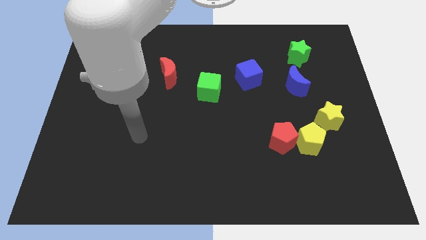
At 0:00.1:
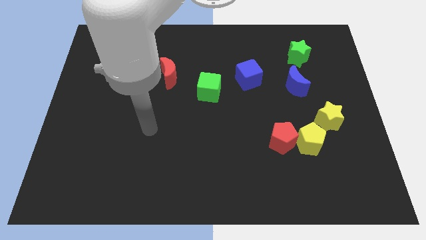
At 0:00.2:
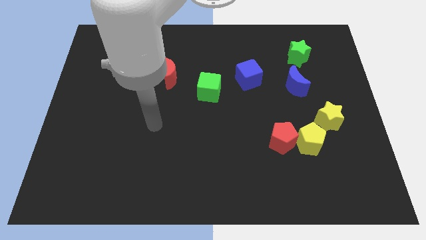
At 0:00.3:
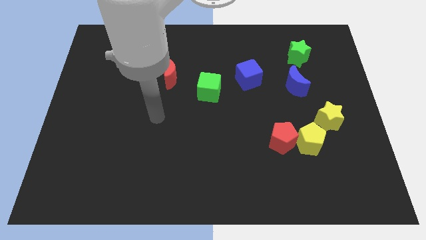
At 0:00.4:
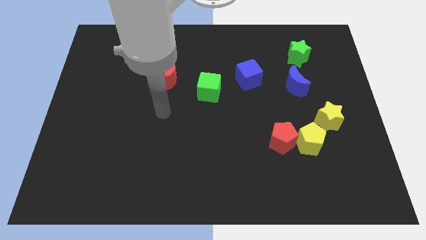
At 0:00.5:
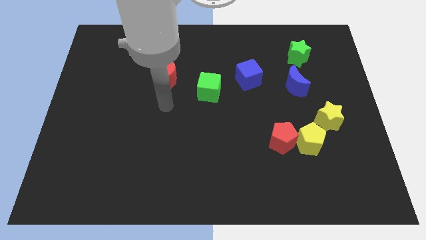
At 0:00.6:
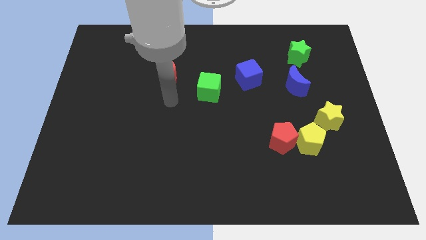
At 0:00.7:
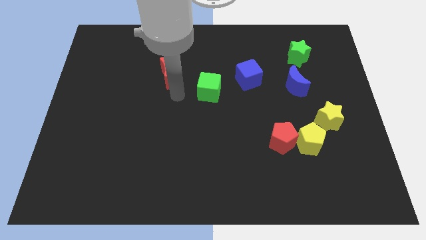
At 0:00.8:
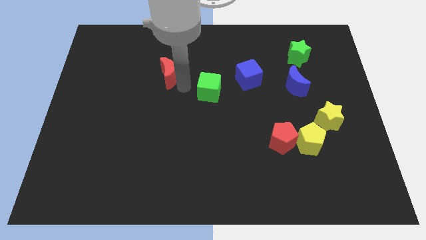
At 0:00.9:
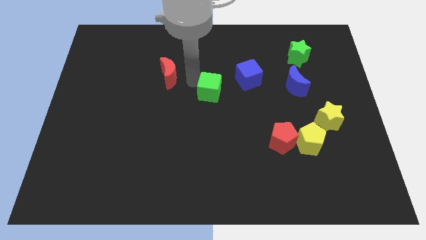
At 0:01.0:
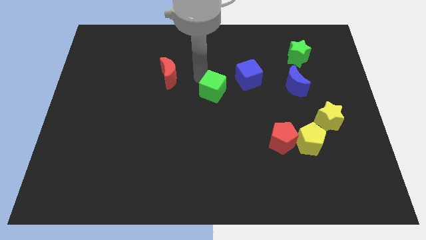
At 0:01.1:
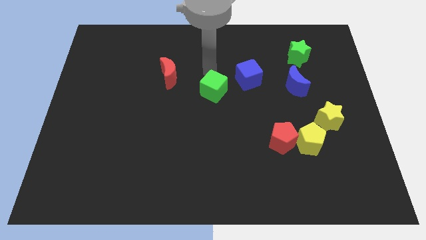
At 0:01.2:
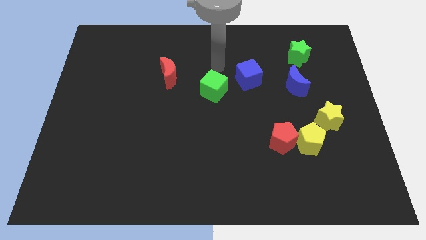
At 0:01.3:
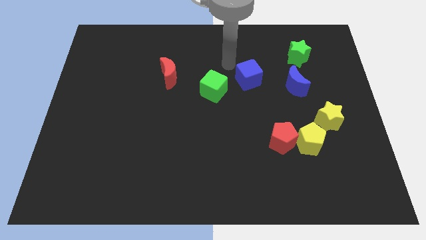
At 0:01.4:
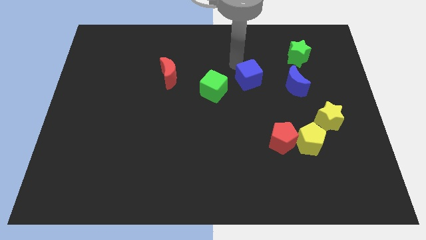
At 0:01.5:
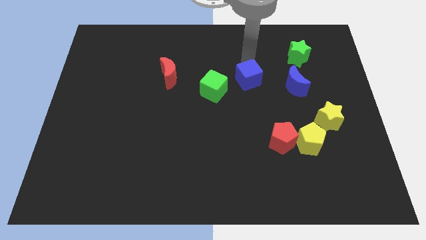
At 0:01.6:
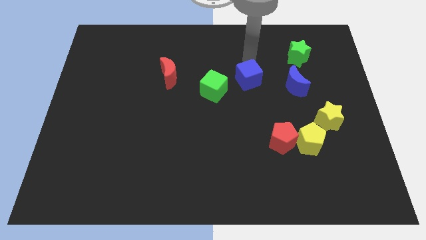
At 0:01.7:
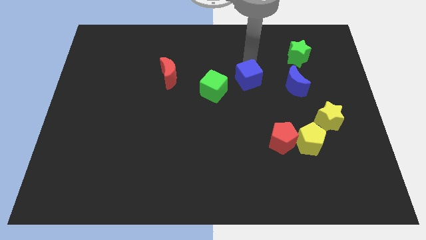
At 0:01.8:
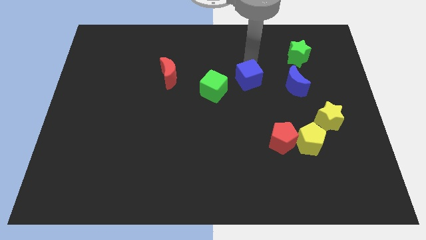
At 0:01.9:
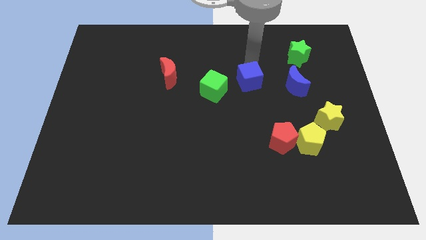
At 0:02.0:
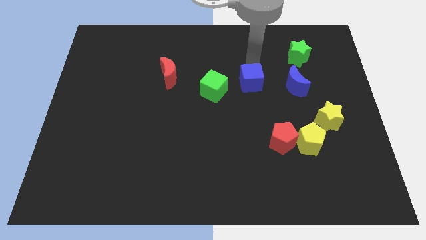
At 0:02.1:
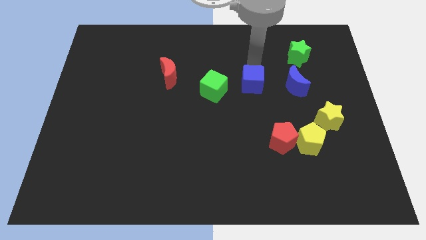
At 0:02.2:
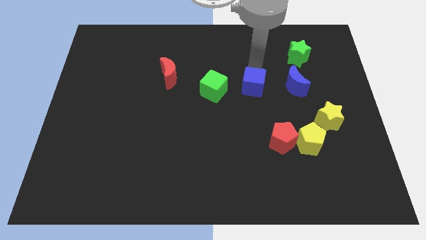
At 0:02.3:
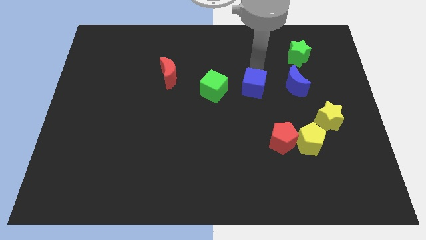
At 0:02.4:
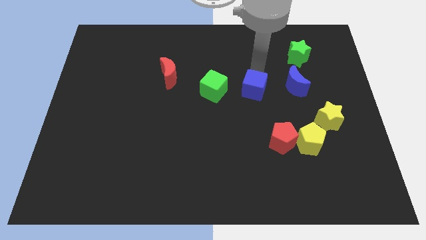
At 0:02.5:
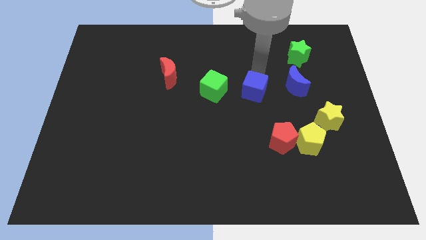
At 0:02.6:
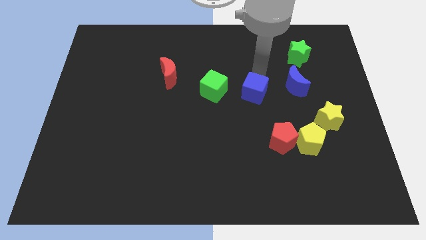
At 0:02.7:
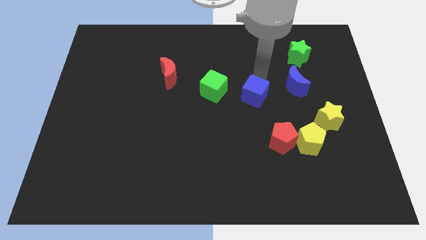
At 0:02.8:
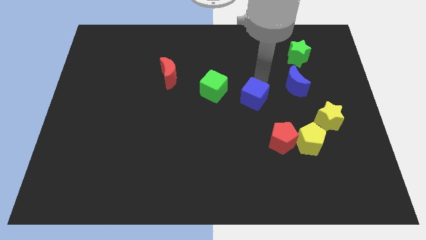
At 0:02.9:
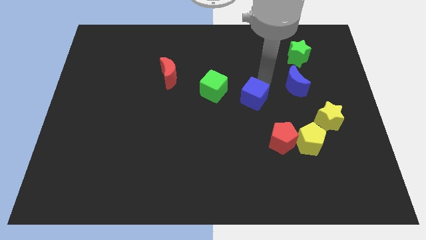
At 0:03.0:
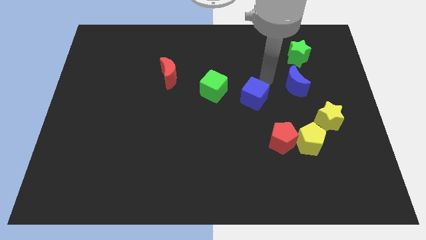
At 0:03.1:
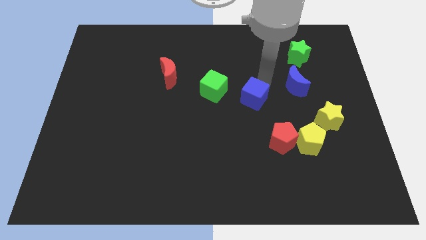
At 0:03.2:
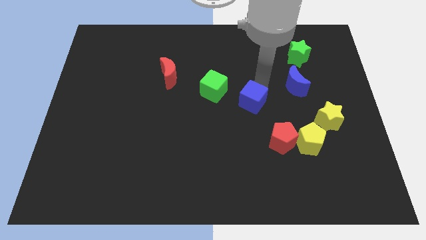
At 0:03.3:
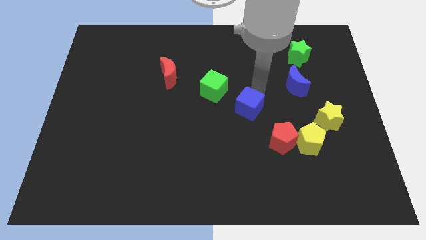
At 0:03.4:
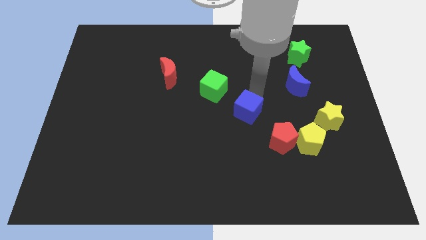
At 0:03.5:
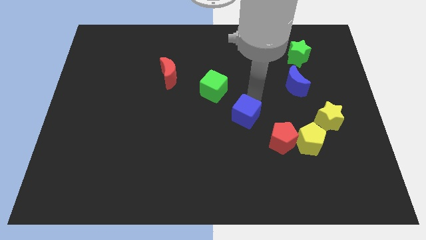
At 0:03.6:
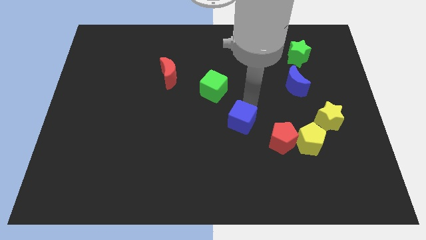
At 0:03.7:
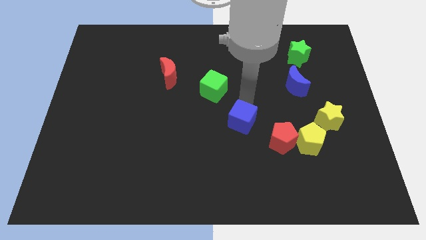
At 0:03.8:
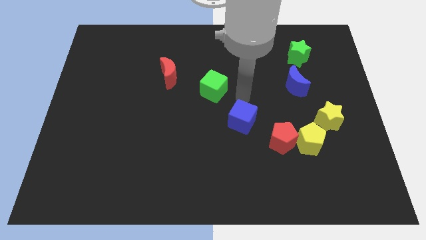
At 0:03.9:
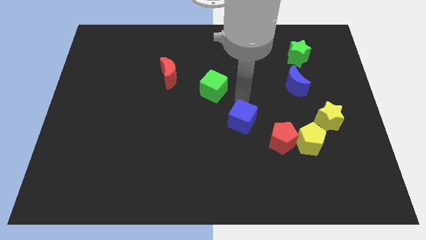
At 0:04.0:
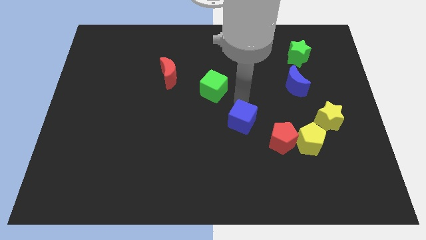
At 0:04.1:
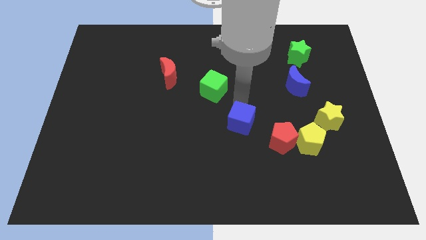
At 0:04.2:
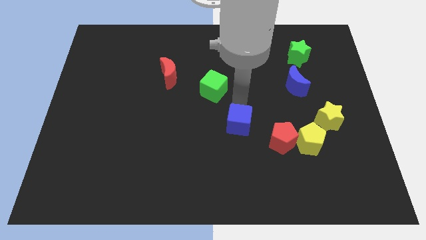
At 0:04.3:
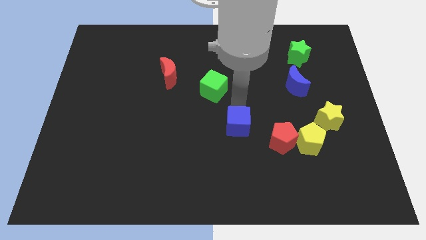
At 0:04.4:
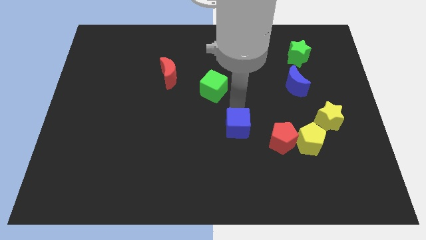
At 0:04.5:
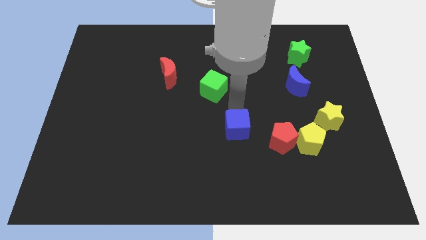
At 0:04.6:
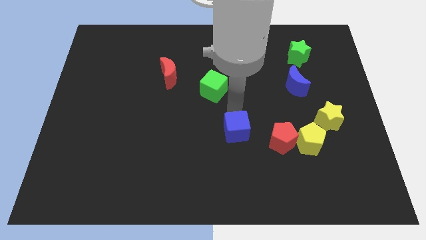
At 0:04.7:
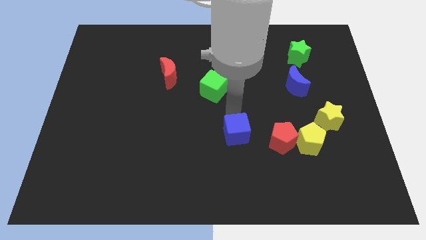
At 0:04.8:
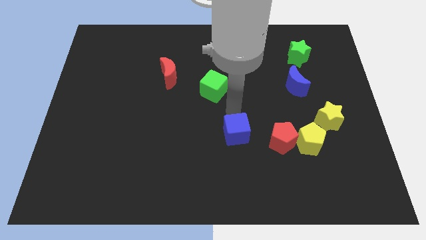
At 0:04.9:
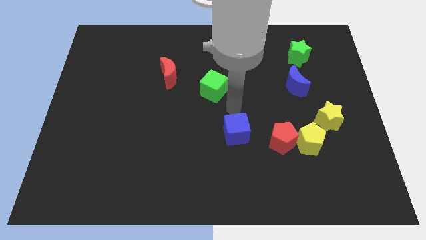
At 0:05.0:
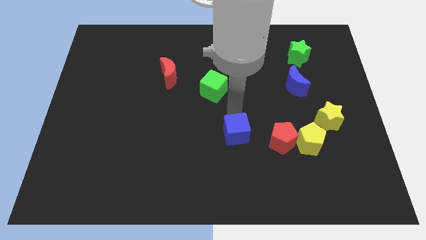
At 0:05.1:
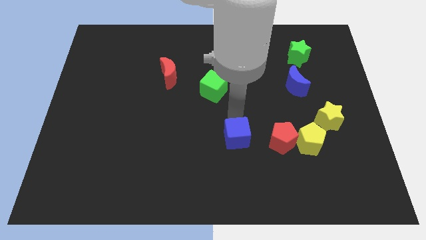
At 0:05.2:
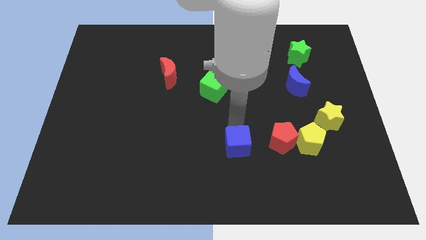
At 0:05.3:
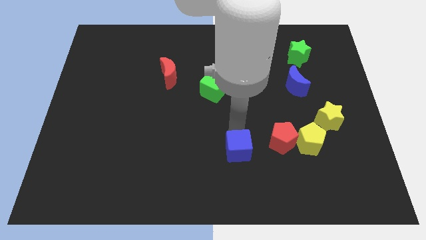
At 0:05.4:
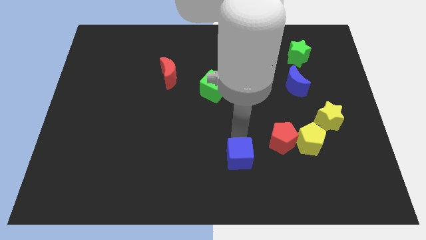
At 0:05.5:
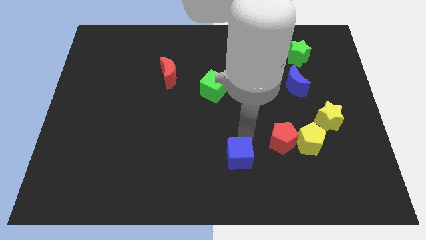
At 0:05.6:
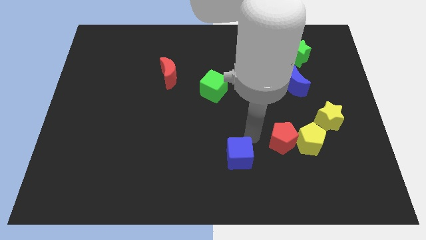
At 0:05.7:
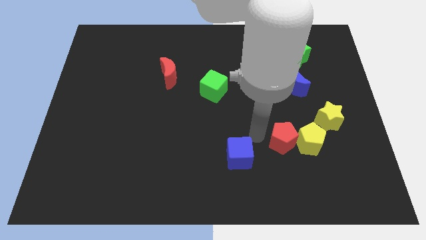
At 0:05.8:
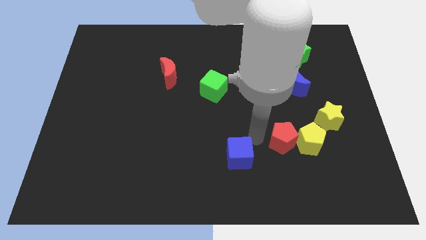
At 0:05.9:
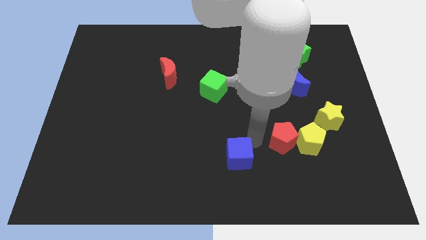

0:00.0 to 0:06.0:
slide the blue cube to the bottom

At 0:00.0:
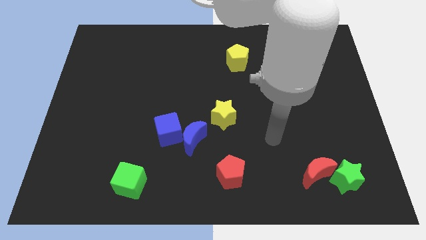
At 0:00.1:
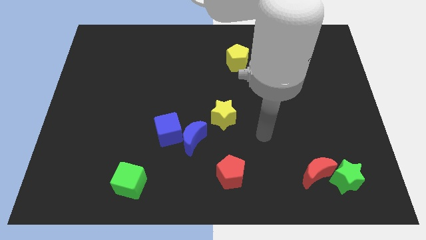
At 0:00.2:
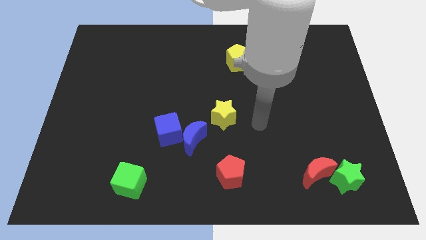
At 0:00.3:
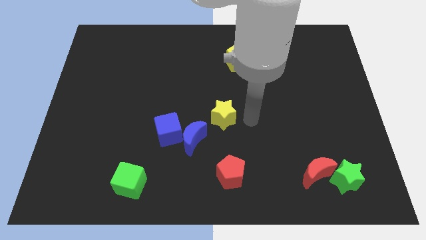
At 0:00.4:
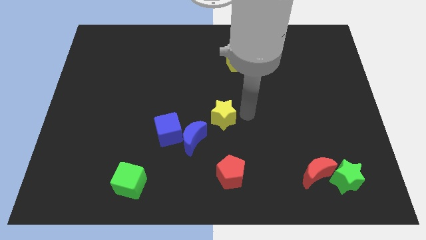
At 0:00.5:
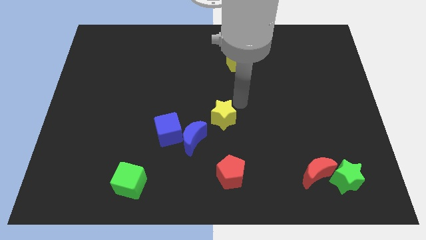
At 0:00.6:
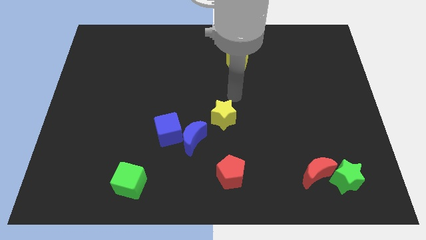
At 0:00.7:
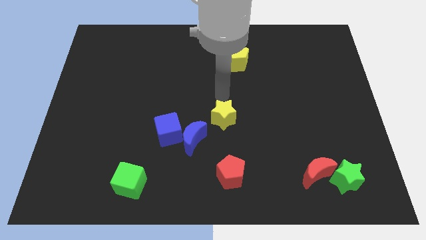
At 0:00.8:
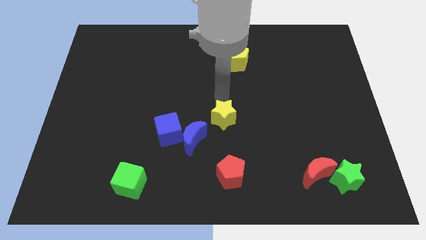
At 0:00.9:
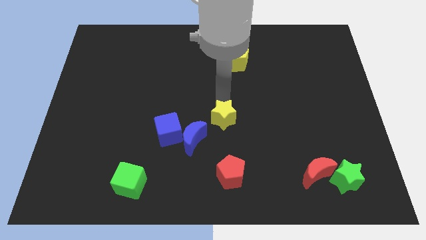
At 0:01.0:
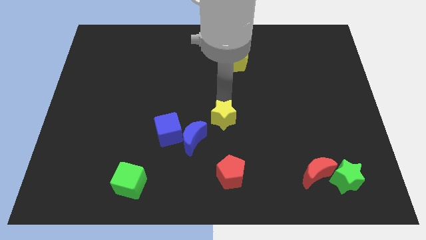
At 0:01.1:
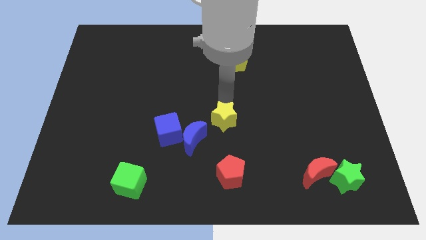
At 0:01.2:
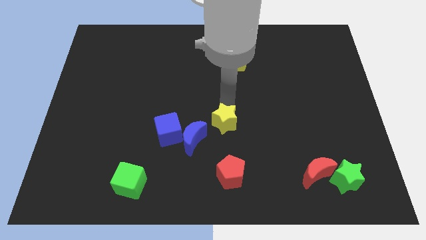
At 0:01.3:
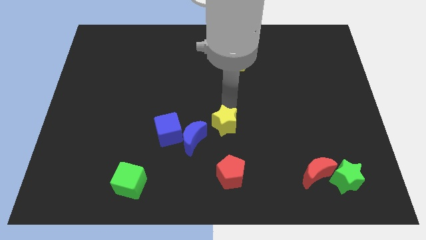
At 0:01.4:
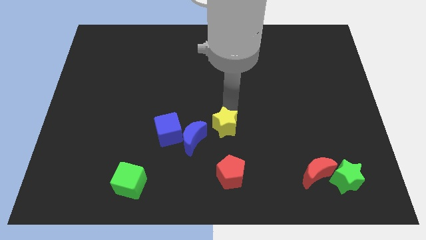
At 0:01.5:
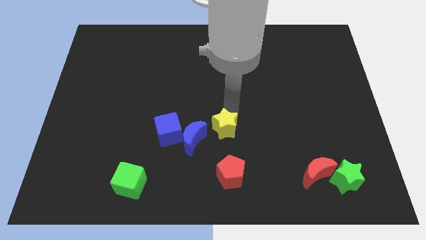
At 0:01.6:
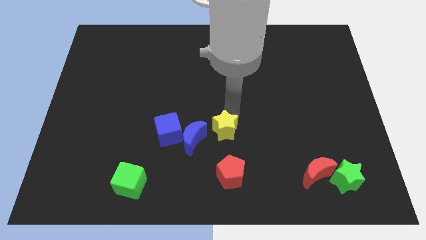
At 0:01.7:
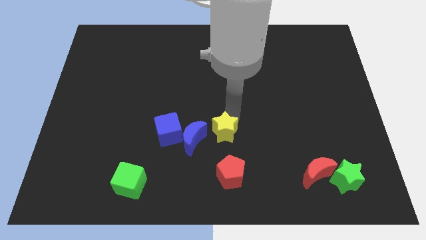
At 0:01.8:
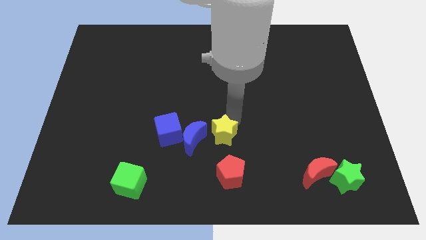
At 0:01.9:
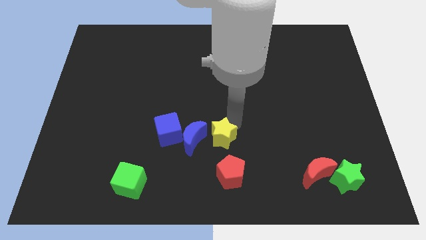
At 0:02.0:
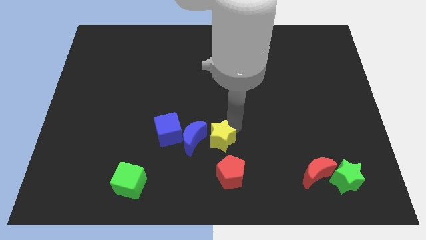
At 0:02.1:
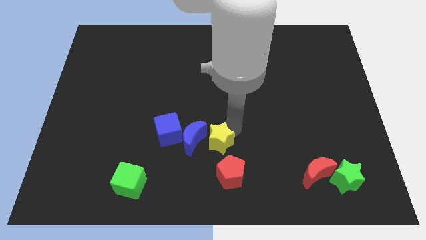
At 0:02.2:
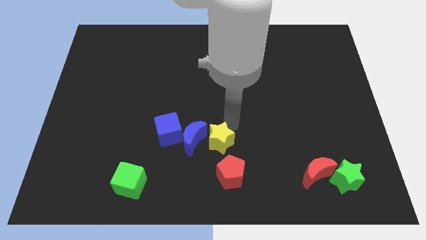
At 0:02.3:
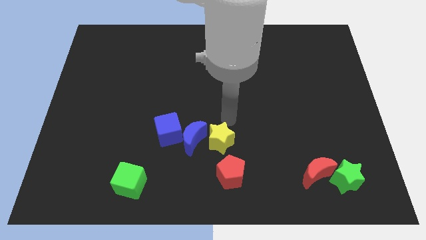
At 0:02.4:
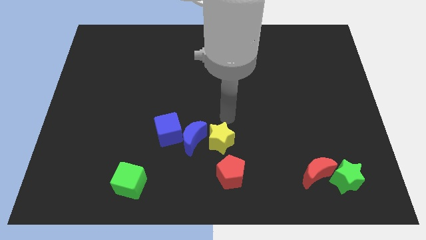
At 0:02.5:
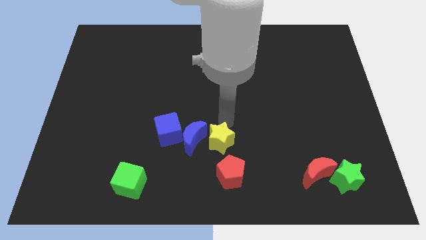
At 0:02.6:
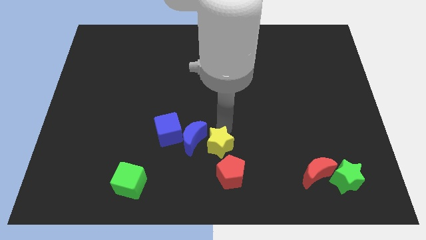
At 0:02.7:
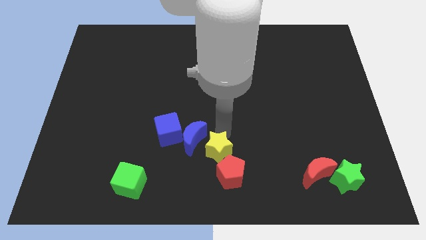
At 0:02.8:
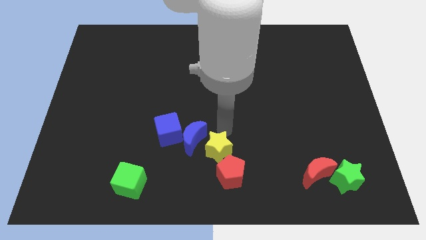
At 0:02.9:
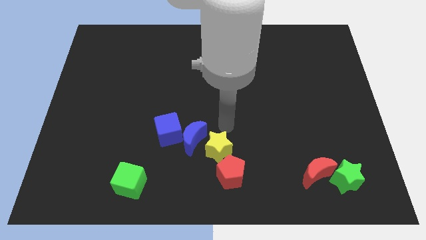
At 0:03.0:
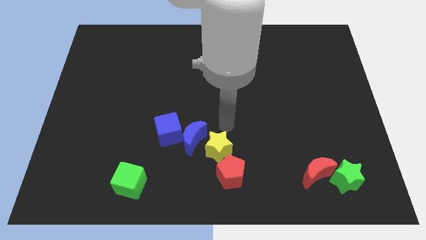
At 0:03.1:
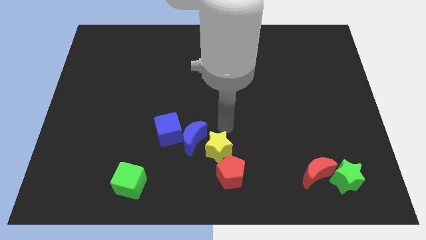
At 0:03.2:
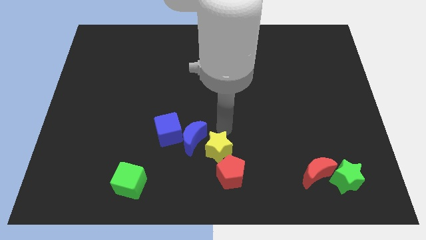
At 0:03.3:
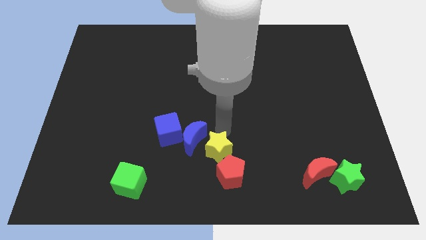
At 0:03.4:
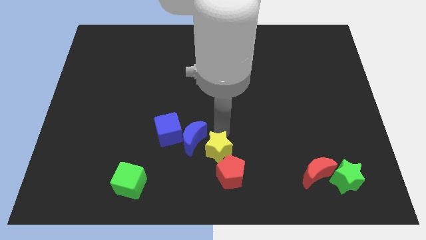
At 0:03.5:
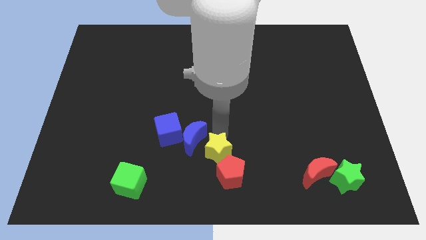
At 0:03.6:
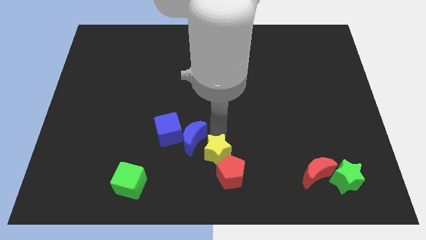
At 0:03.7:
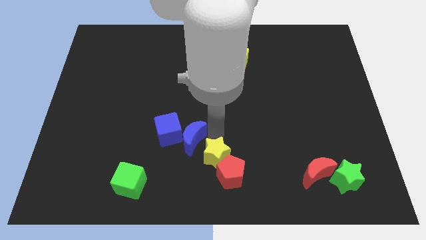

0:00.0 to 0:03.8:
put the yellow star to the bottom
